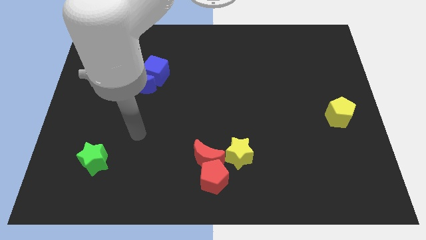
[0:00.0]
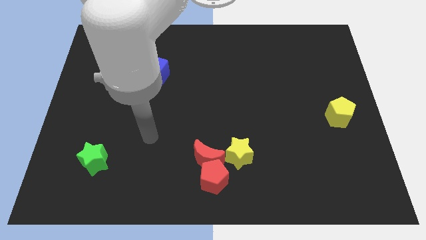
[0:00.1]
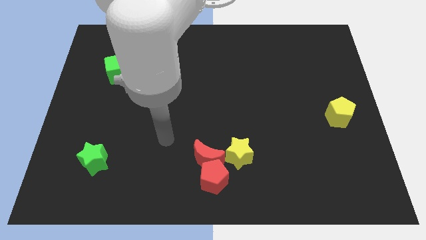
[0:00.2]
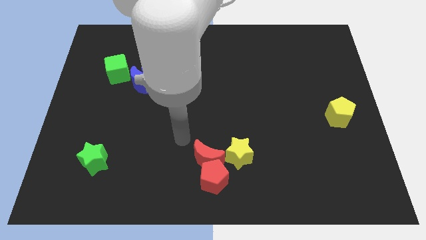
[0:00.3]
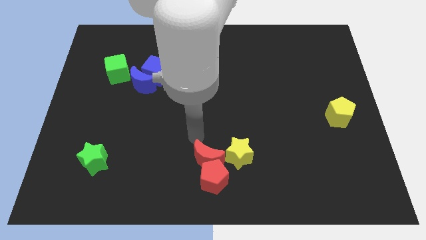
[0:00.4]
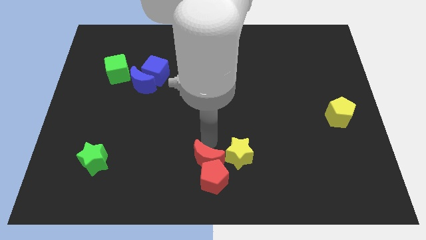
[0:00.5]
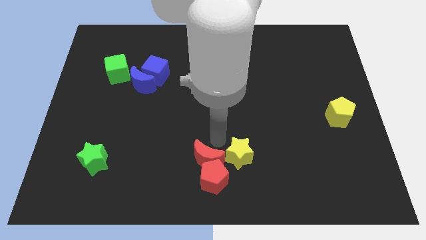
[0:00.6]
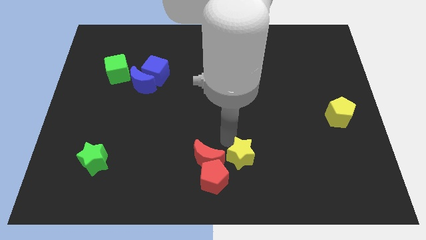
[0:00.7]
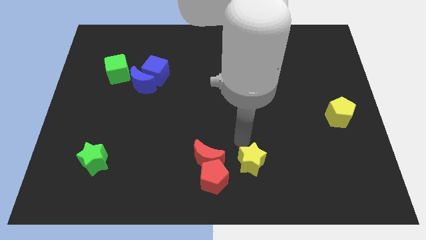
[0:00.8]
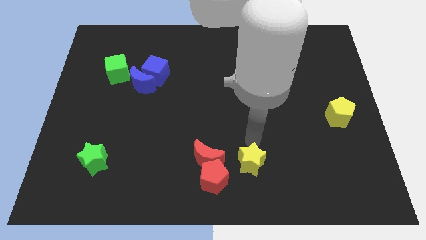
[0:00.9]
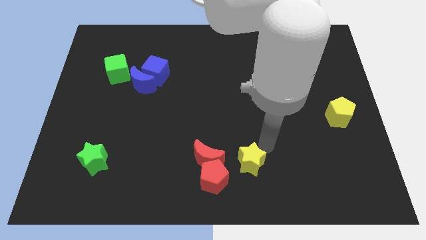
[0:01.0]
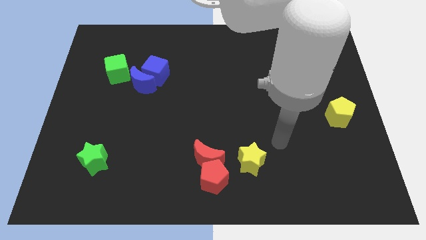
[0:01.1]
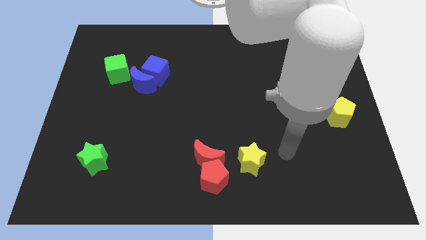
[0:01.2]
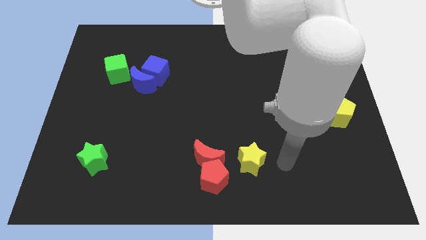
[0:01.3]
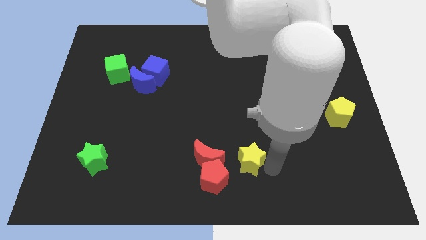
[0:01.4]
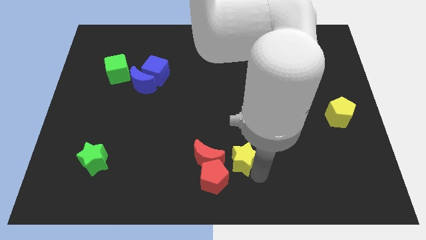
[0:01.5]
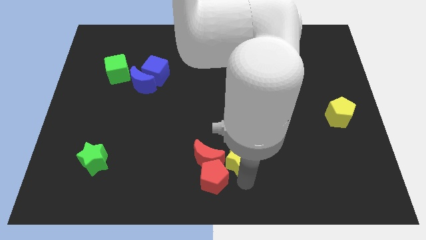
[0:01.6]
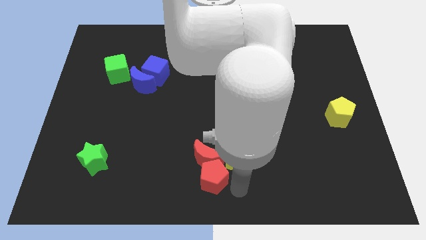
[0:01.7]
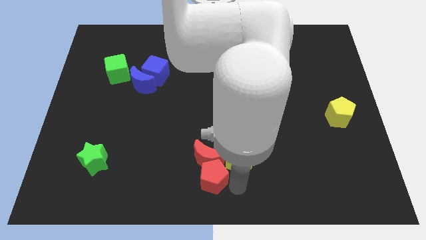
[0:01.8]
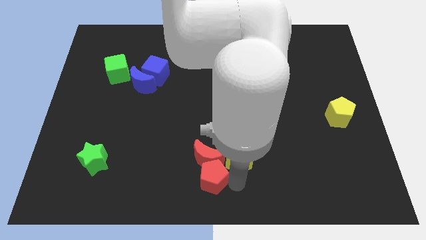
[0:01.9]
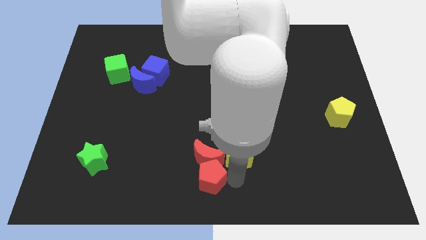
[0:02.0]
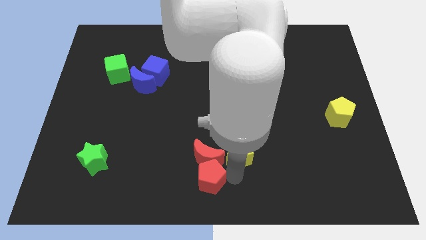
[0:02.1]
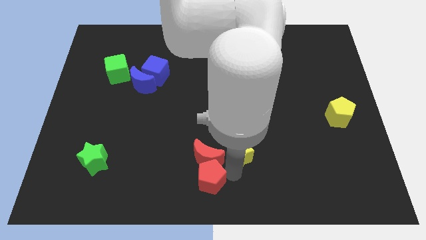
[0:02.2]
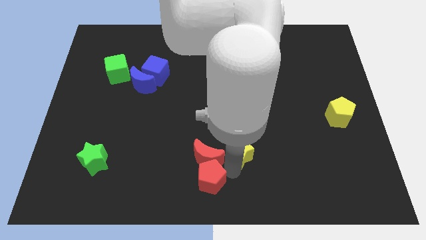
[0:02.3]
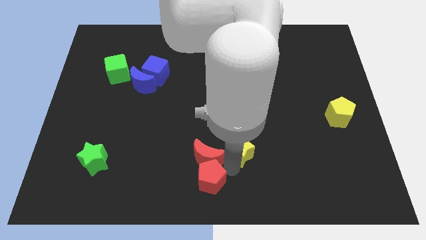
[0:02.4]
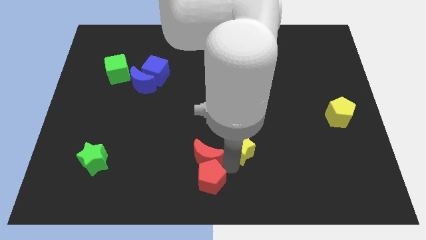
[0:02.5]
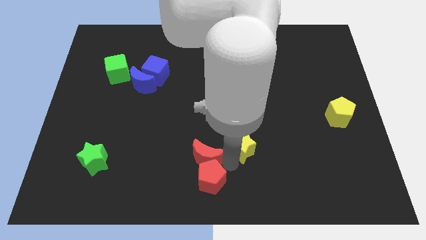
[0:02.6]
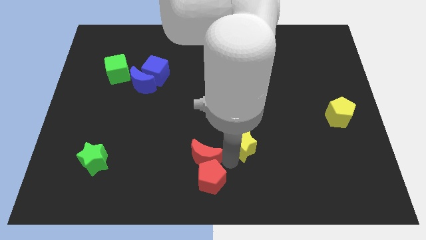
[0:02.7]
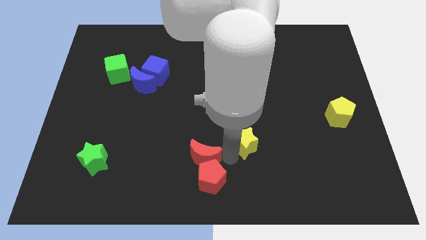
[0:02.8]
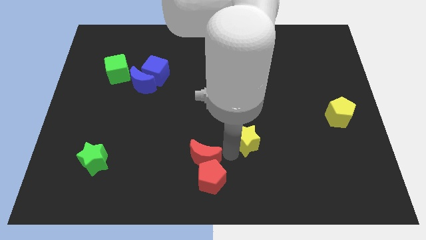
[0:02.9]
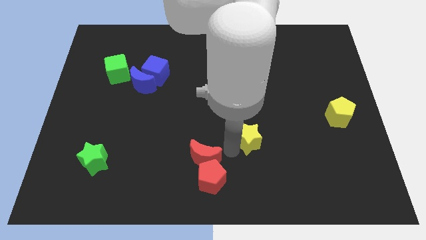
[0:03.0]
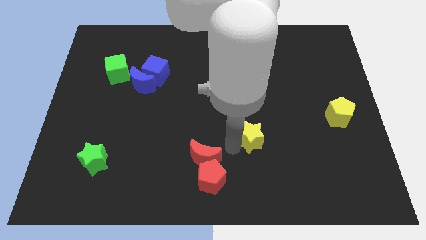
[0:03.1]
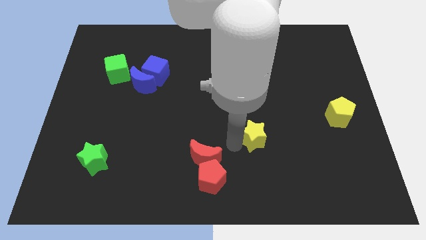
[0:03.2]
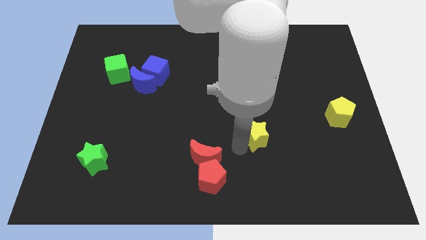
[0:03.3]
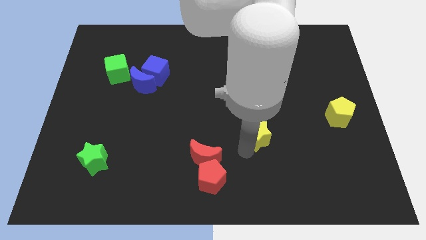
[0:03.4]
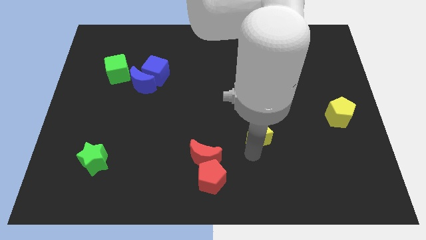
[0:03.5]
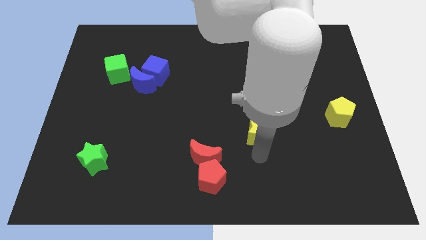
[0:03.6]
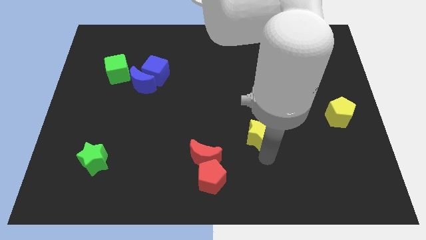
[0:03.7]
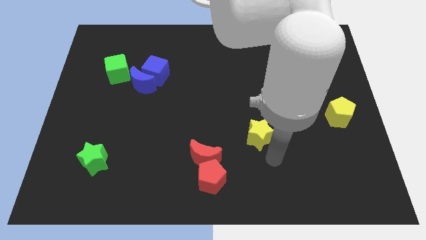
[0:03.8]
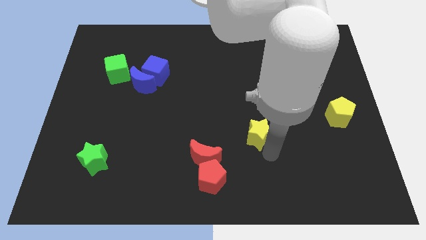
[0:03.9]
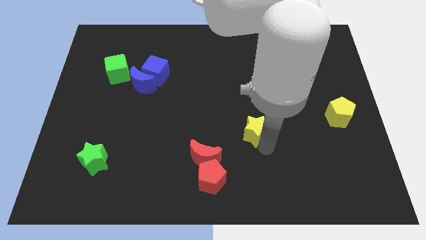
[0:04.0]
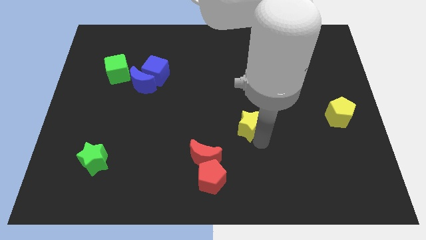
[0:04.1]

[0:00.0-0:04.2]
move the yellow star a little bit up

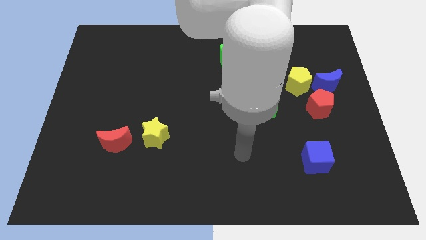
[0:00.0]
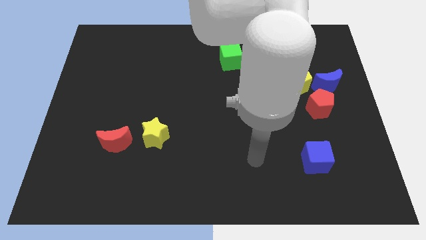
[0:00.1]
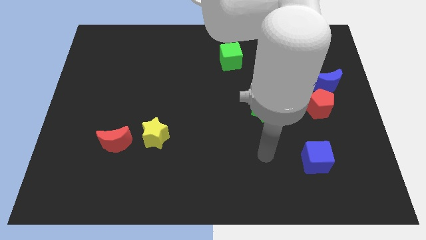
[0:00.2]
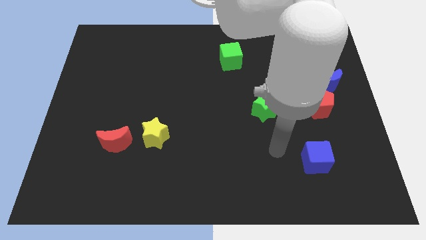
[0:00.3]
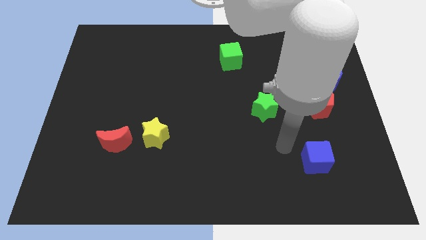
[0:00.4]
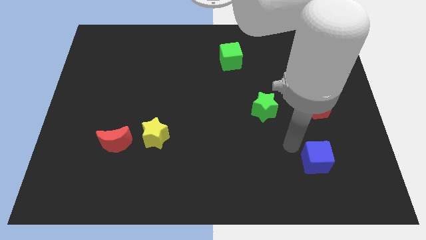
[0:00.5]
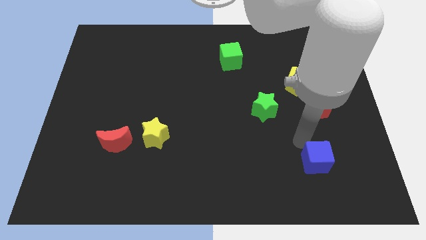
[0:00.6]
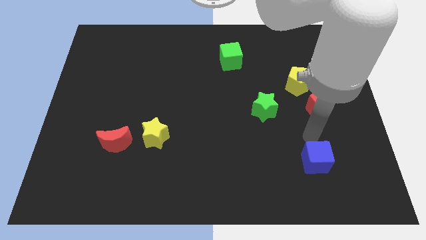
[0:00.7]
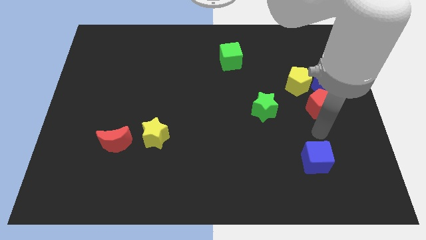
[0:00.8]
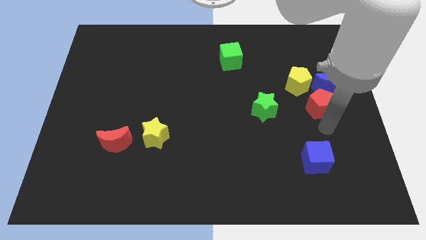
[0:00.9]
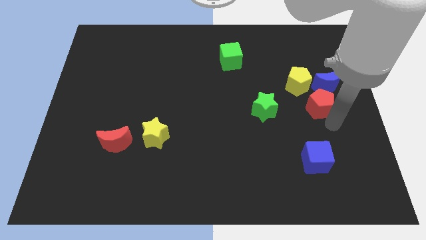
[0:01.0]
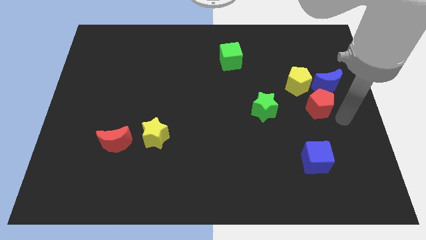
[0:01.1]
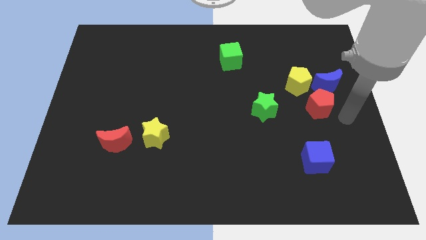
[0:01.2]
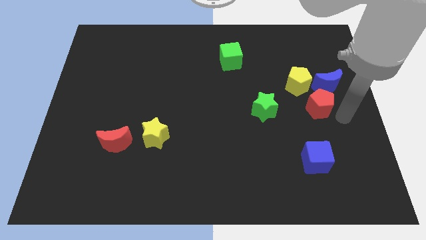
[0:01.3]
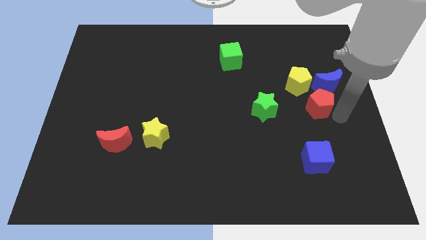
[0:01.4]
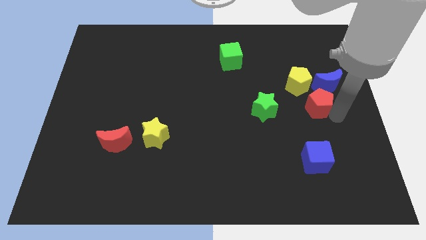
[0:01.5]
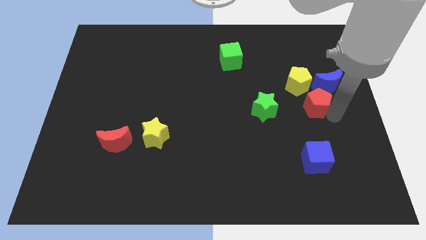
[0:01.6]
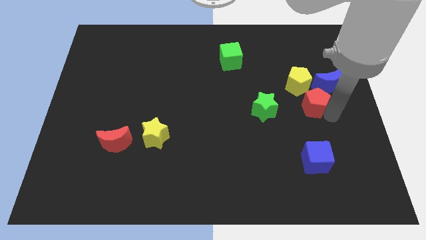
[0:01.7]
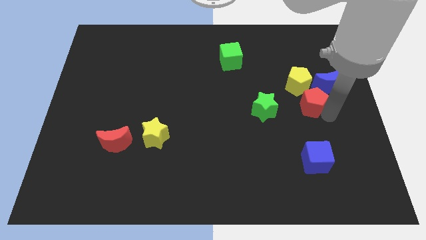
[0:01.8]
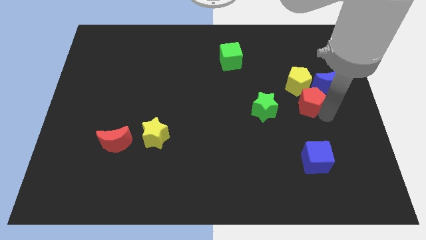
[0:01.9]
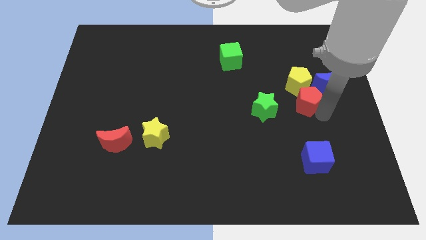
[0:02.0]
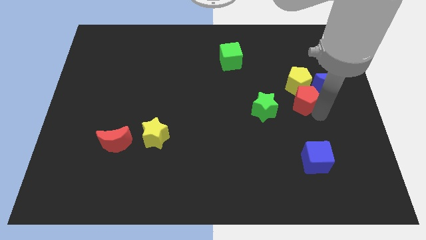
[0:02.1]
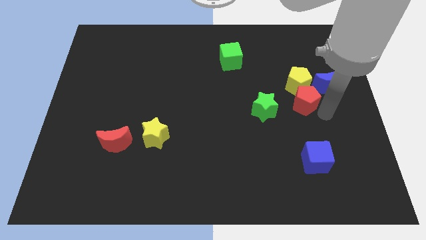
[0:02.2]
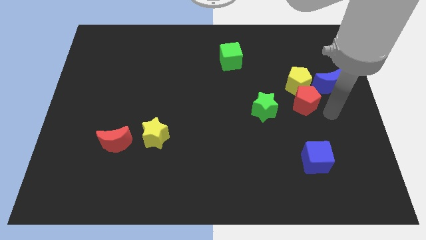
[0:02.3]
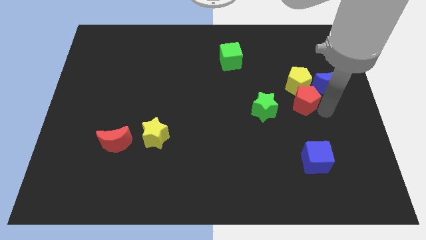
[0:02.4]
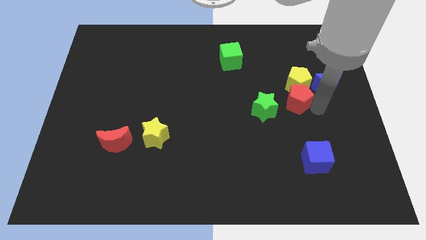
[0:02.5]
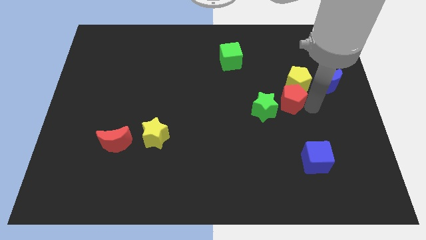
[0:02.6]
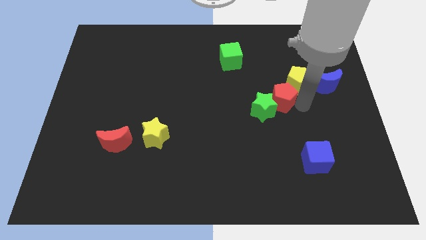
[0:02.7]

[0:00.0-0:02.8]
move the red pentagon left a little bit

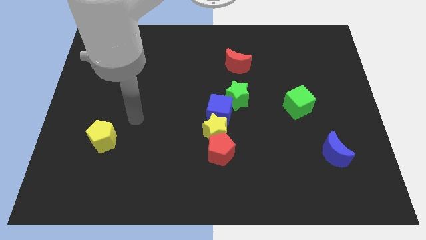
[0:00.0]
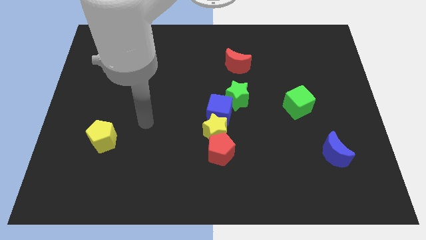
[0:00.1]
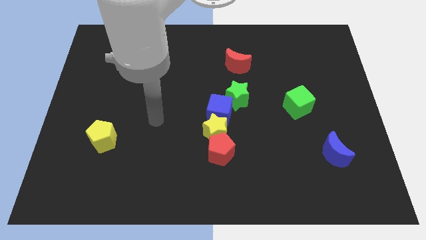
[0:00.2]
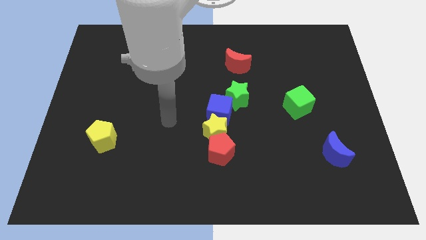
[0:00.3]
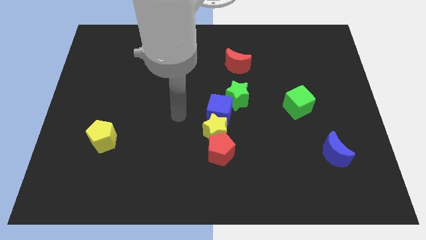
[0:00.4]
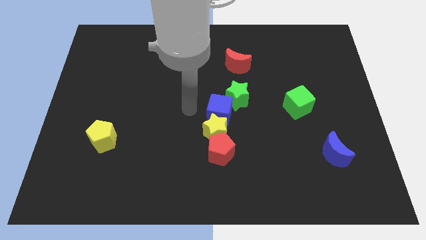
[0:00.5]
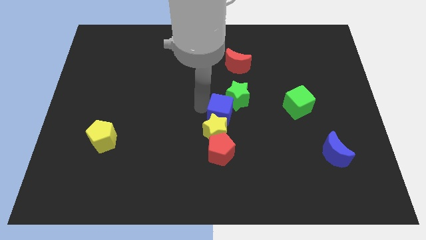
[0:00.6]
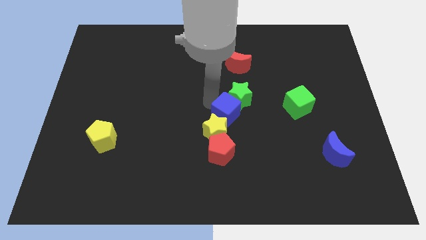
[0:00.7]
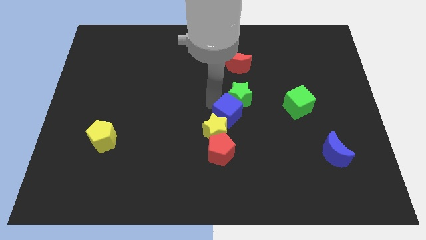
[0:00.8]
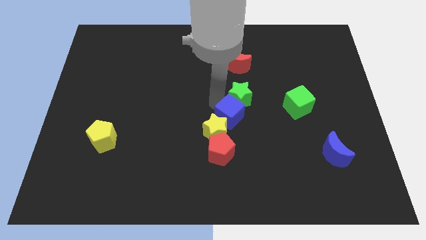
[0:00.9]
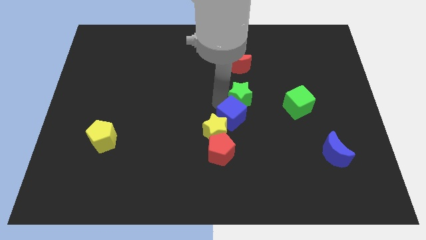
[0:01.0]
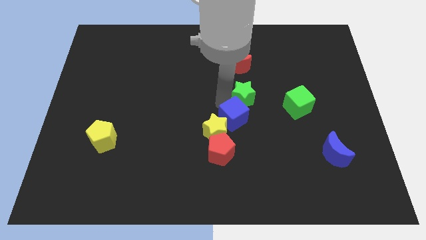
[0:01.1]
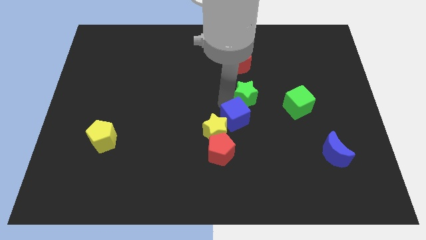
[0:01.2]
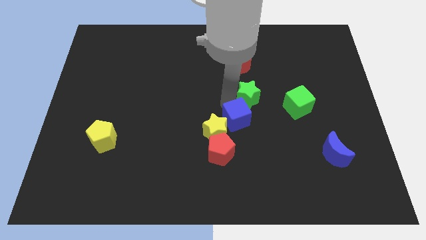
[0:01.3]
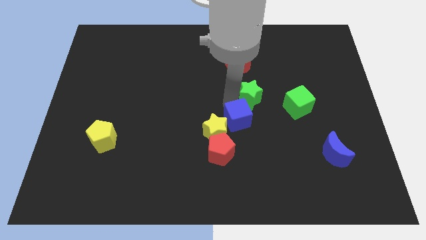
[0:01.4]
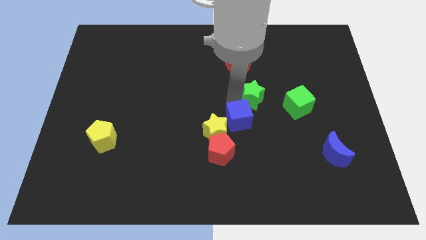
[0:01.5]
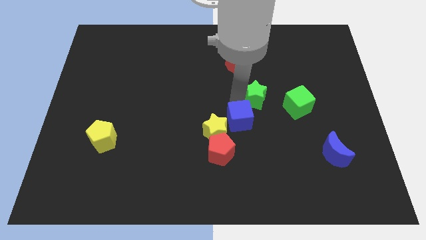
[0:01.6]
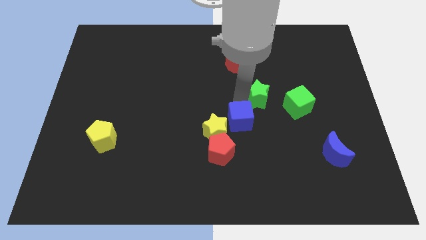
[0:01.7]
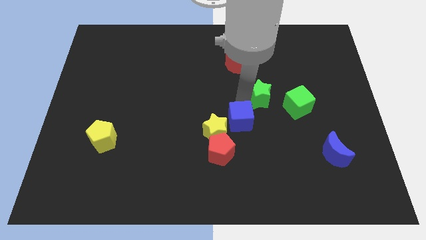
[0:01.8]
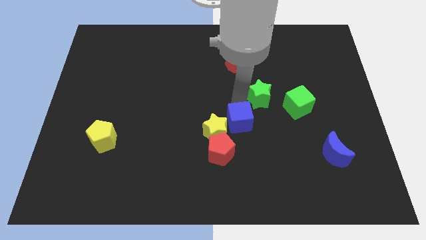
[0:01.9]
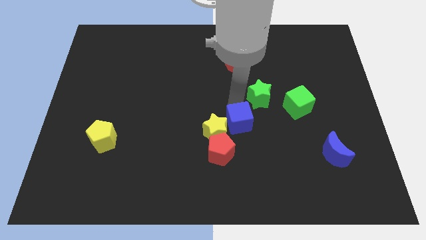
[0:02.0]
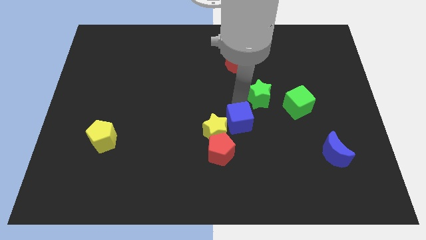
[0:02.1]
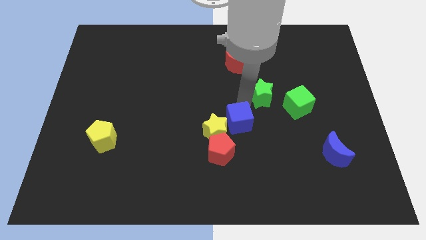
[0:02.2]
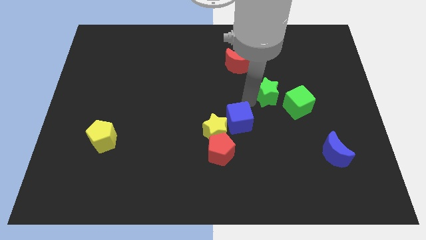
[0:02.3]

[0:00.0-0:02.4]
slide the green star a little to the right
